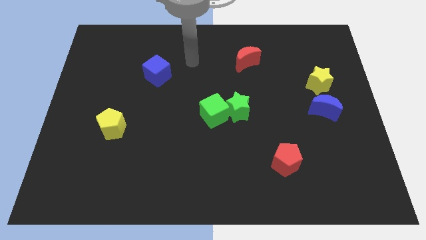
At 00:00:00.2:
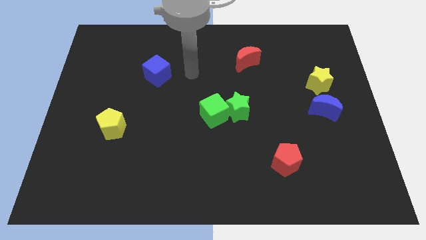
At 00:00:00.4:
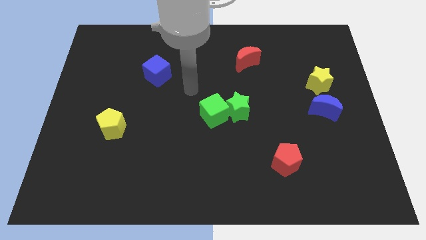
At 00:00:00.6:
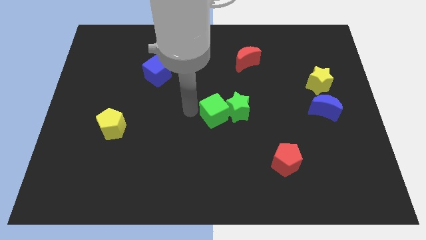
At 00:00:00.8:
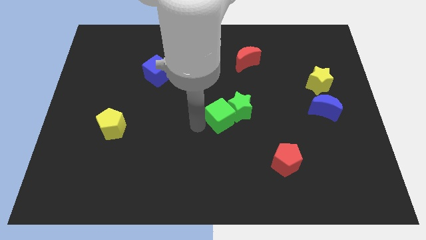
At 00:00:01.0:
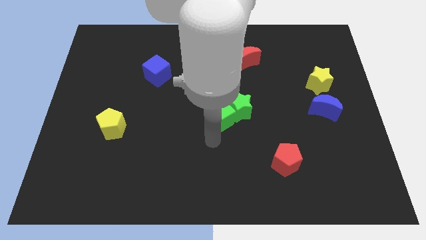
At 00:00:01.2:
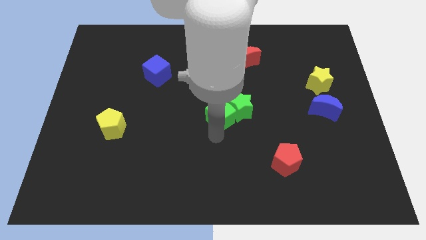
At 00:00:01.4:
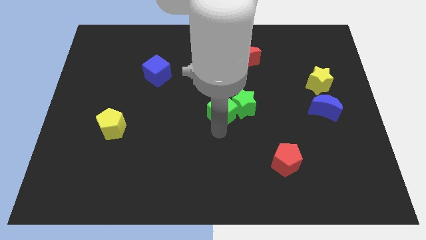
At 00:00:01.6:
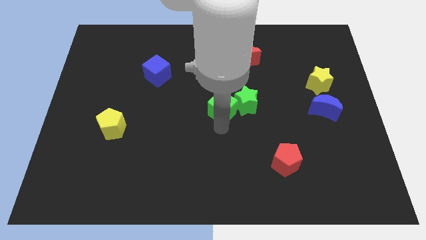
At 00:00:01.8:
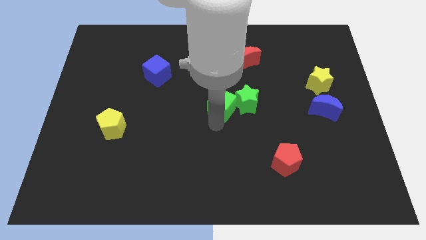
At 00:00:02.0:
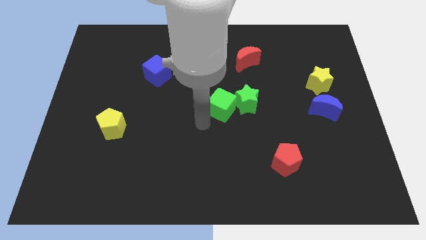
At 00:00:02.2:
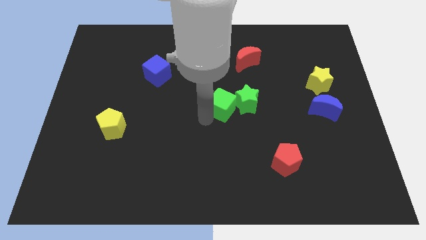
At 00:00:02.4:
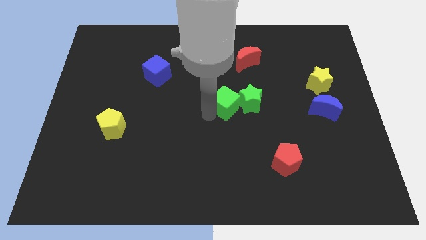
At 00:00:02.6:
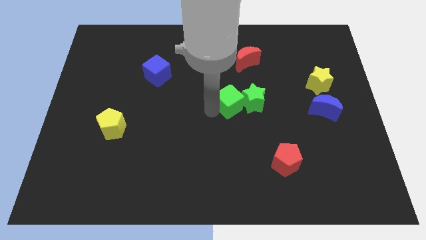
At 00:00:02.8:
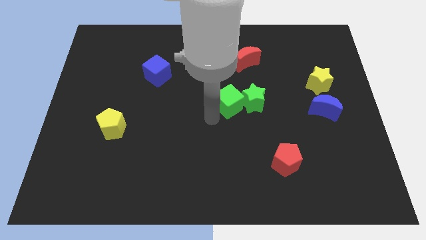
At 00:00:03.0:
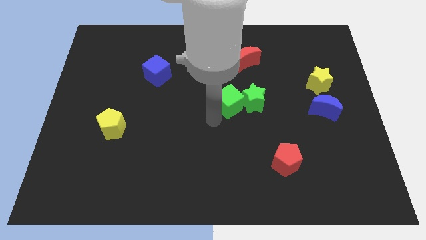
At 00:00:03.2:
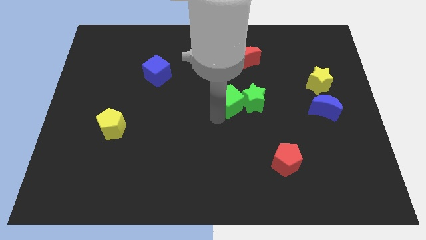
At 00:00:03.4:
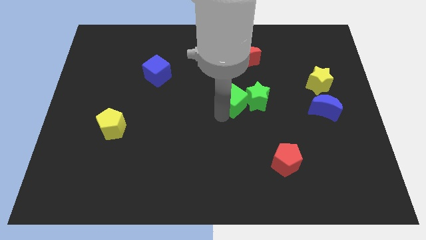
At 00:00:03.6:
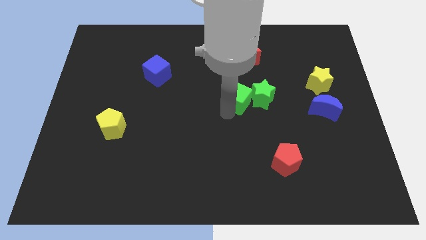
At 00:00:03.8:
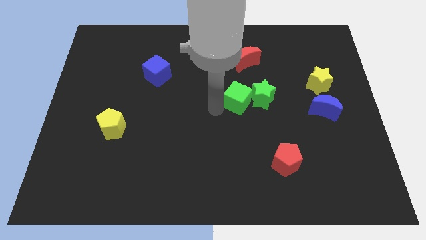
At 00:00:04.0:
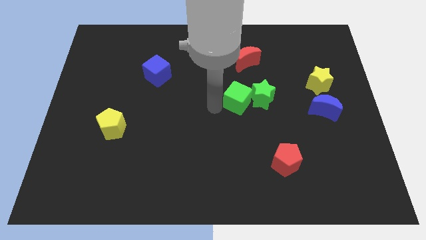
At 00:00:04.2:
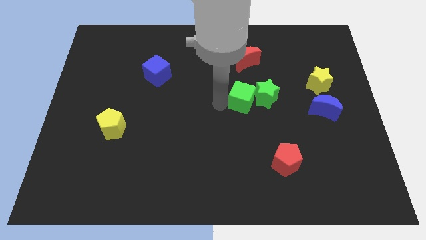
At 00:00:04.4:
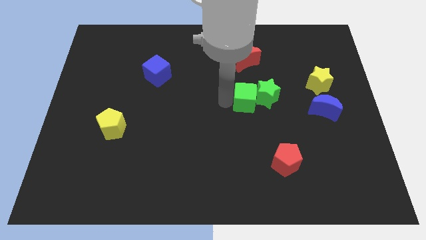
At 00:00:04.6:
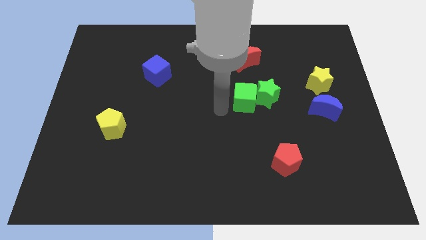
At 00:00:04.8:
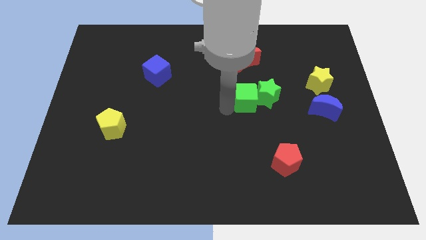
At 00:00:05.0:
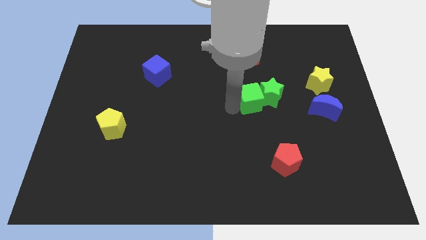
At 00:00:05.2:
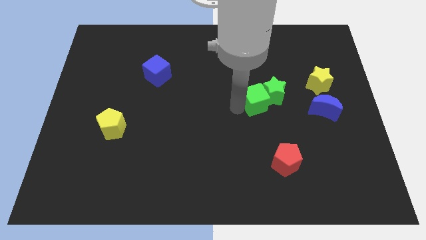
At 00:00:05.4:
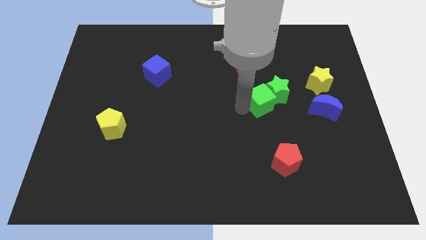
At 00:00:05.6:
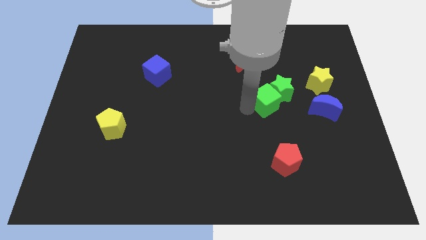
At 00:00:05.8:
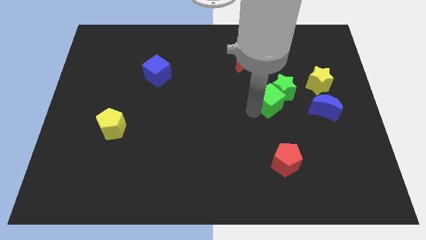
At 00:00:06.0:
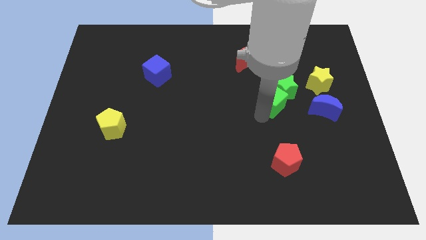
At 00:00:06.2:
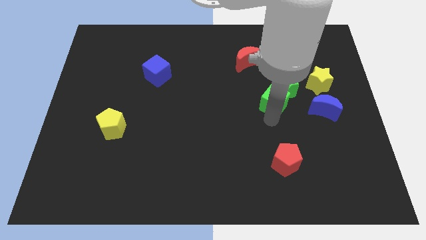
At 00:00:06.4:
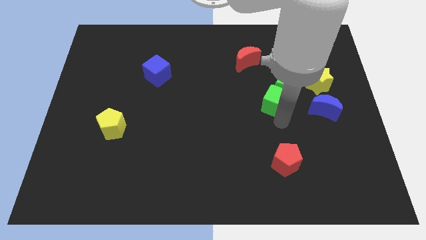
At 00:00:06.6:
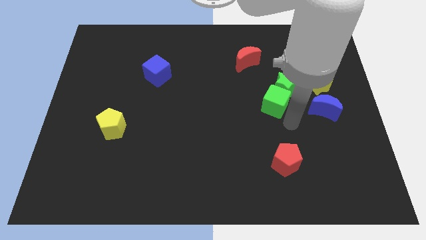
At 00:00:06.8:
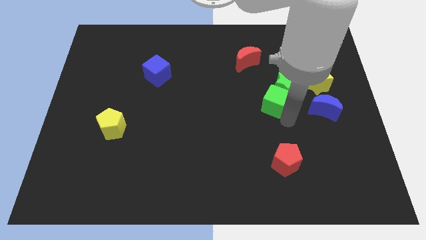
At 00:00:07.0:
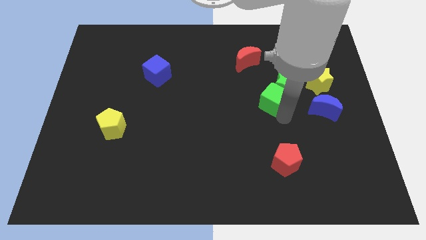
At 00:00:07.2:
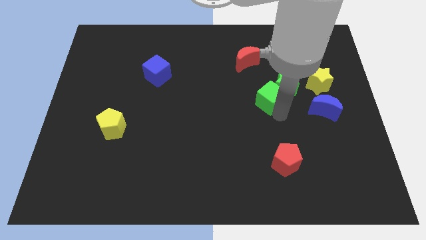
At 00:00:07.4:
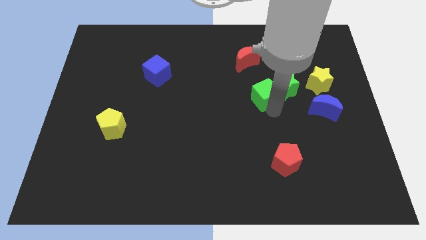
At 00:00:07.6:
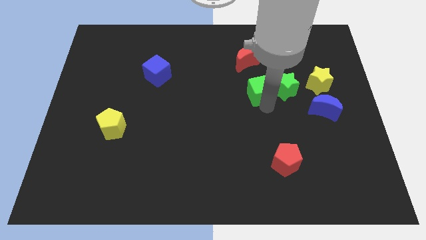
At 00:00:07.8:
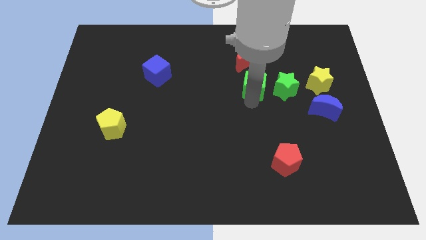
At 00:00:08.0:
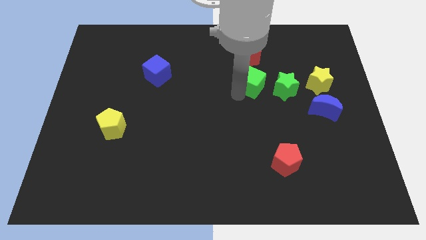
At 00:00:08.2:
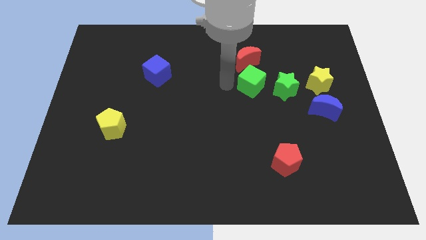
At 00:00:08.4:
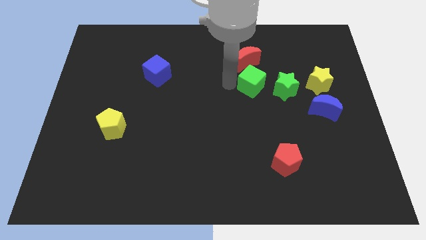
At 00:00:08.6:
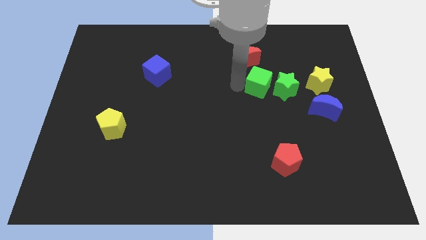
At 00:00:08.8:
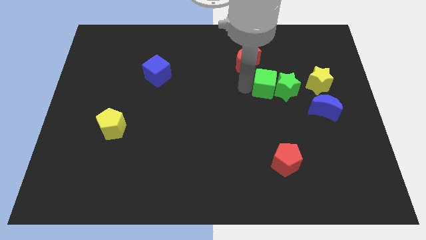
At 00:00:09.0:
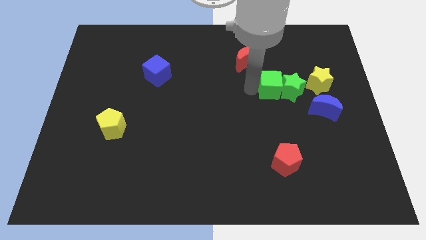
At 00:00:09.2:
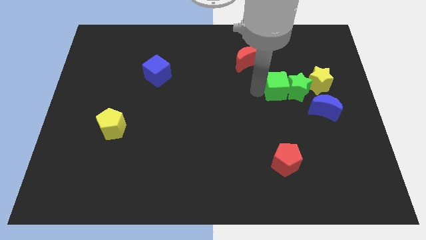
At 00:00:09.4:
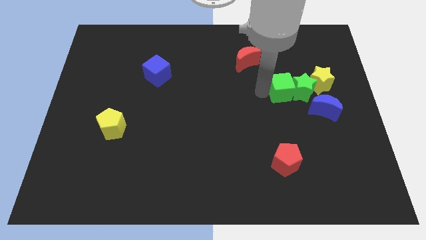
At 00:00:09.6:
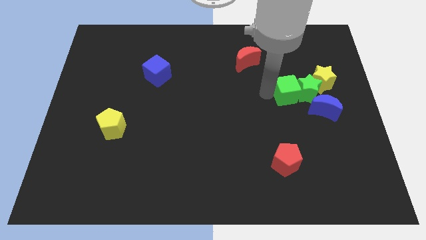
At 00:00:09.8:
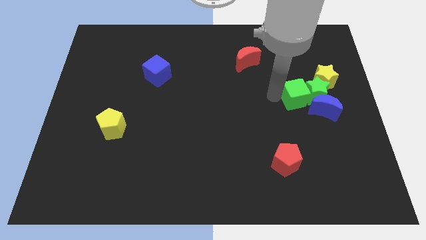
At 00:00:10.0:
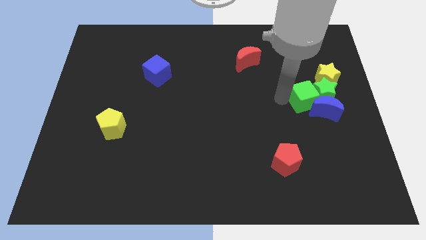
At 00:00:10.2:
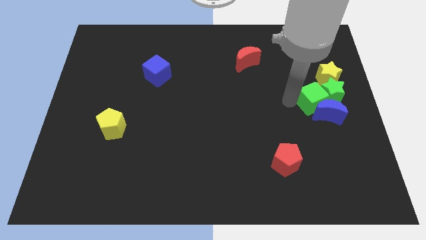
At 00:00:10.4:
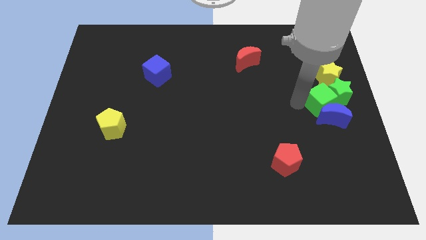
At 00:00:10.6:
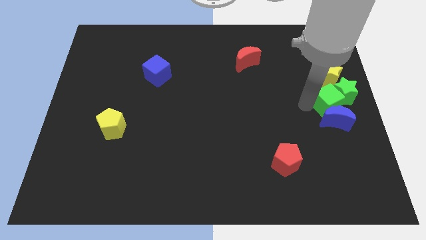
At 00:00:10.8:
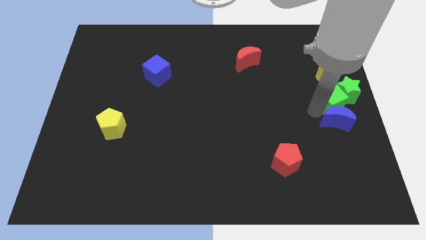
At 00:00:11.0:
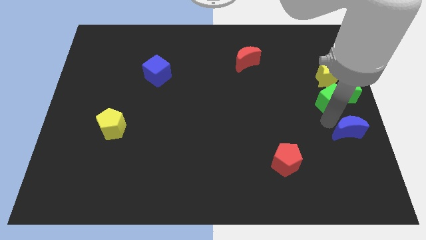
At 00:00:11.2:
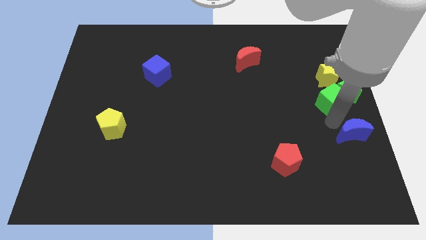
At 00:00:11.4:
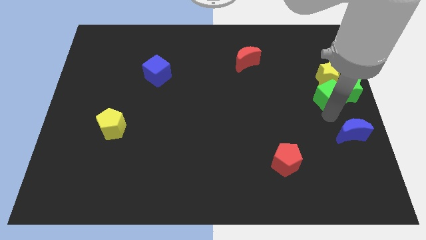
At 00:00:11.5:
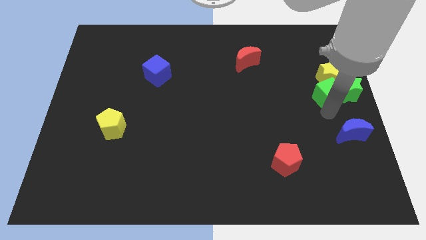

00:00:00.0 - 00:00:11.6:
move the green cube towards the yellow star

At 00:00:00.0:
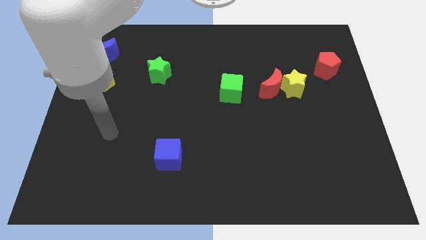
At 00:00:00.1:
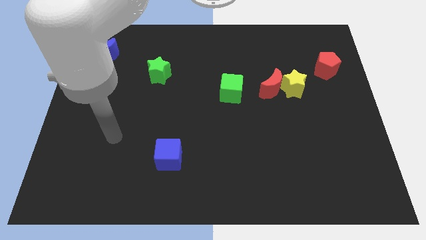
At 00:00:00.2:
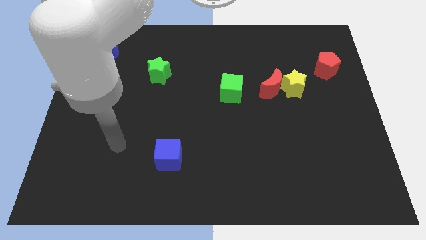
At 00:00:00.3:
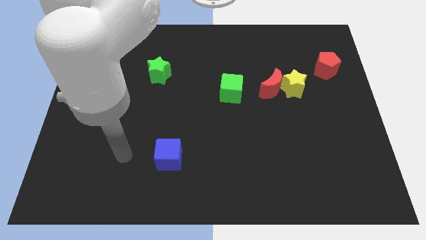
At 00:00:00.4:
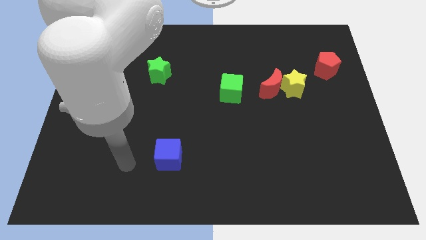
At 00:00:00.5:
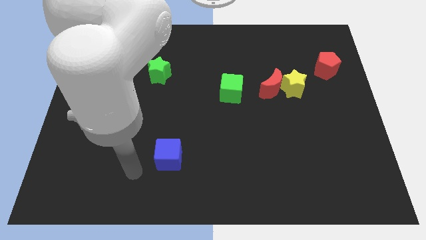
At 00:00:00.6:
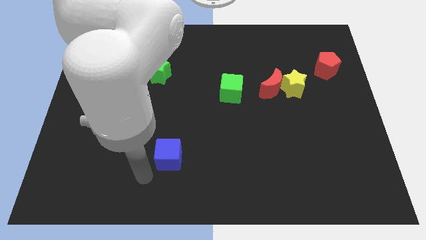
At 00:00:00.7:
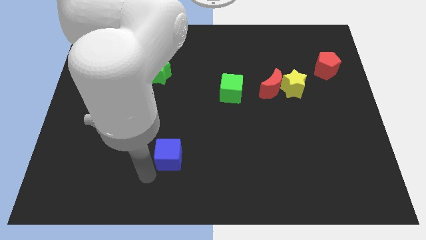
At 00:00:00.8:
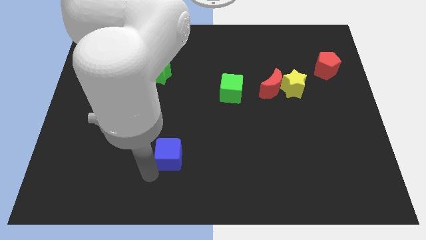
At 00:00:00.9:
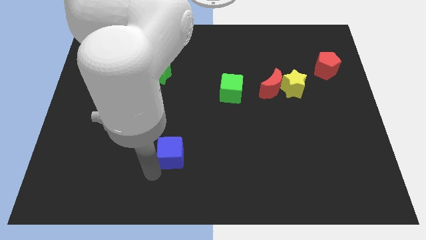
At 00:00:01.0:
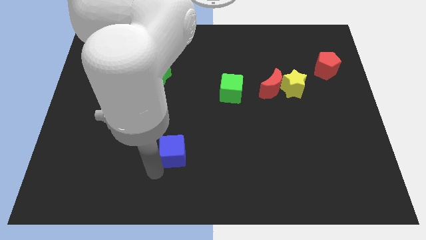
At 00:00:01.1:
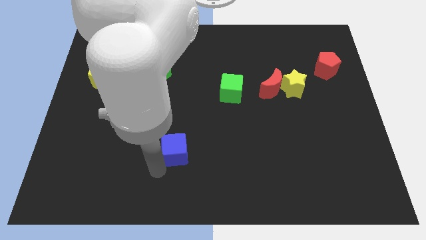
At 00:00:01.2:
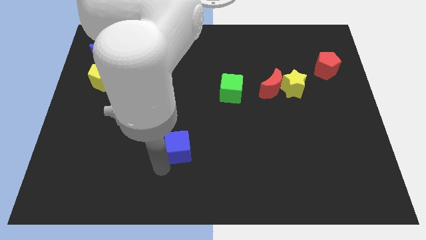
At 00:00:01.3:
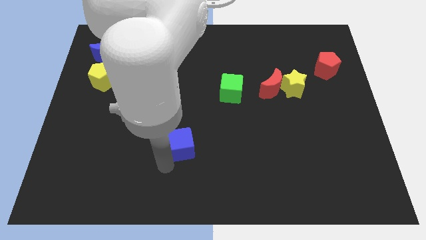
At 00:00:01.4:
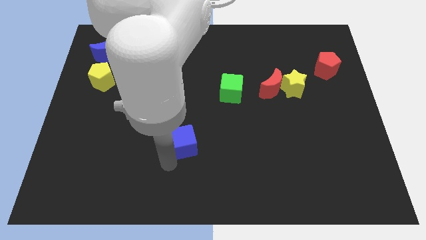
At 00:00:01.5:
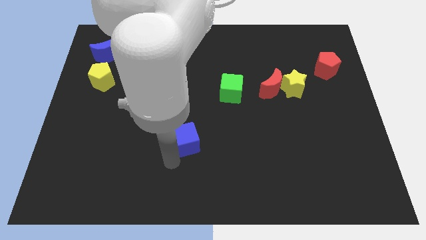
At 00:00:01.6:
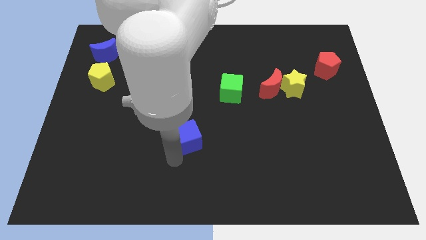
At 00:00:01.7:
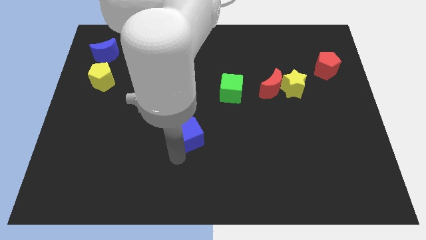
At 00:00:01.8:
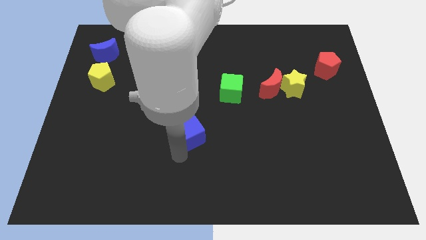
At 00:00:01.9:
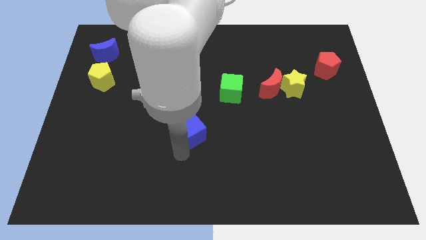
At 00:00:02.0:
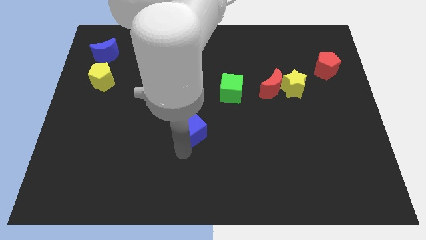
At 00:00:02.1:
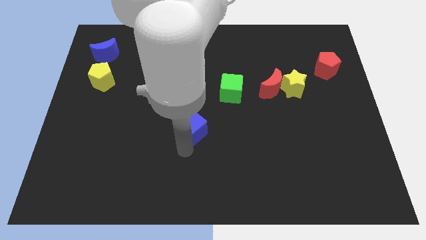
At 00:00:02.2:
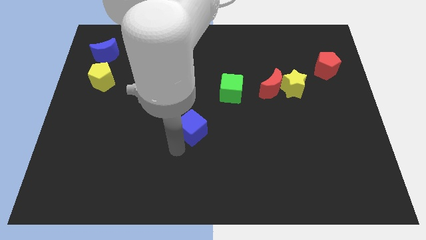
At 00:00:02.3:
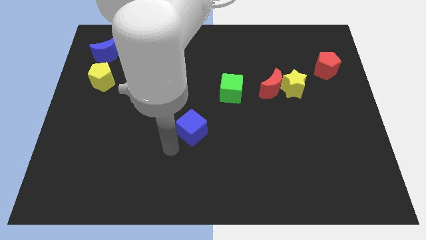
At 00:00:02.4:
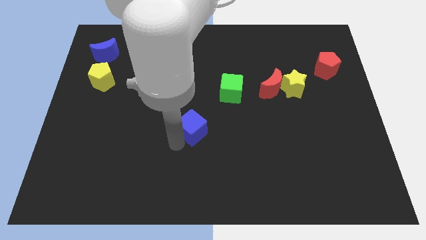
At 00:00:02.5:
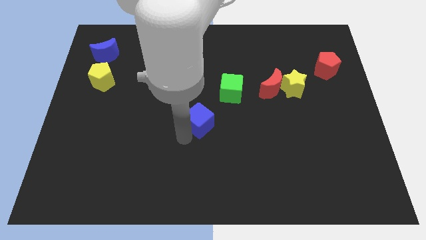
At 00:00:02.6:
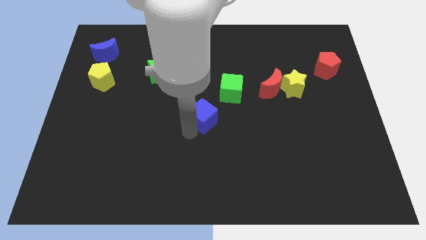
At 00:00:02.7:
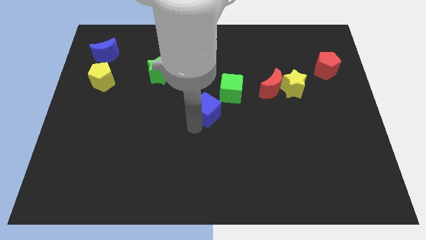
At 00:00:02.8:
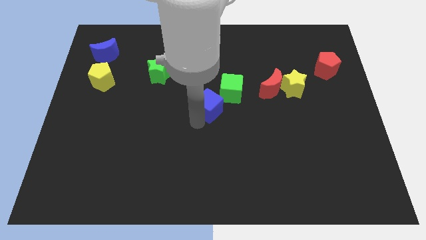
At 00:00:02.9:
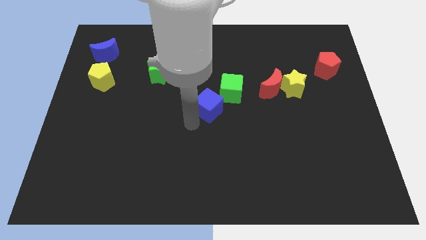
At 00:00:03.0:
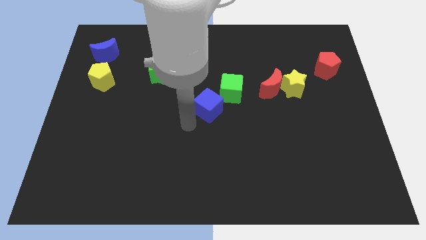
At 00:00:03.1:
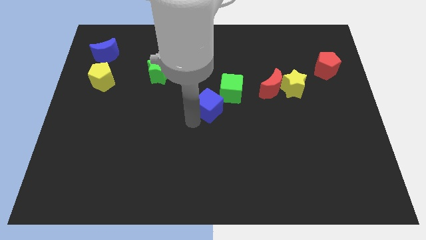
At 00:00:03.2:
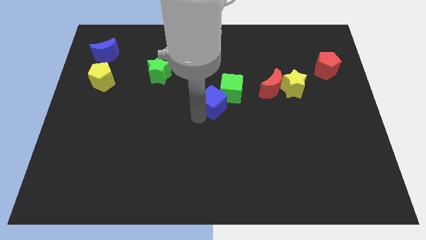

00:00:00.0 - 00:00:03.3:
push the blue cube towards the green cube
